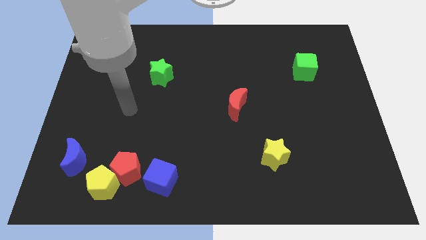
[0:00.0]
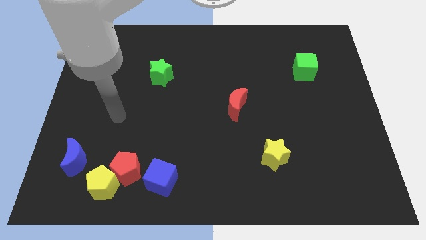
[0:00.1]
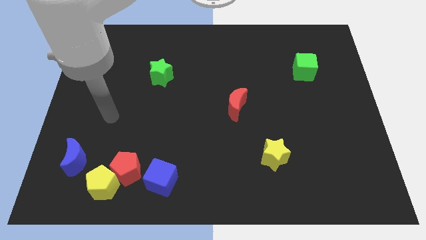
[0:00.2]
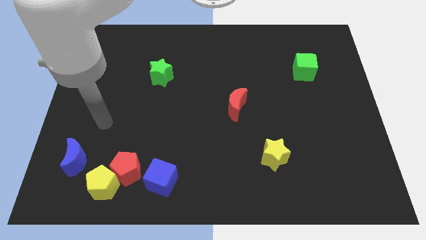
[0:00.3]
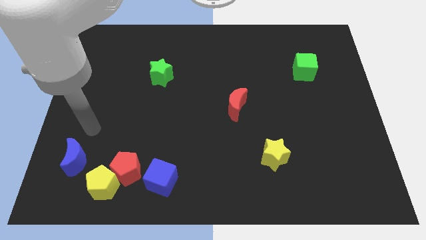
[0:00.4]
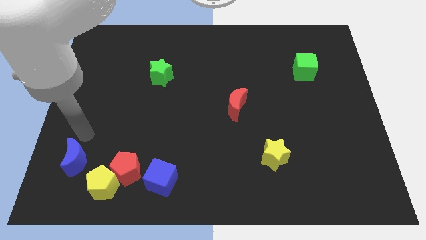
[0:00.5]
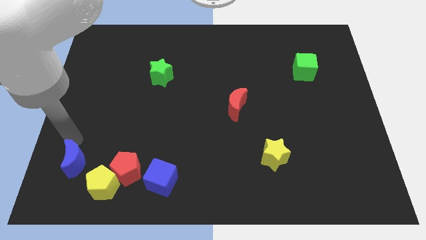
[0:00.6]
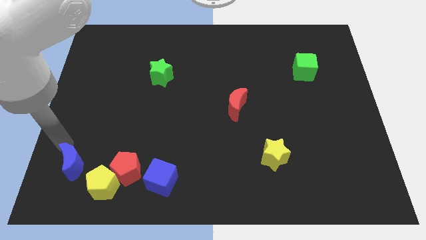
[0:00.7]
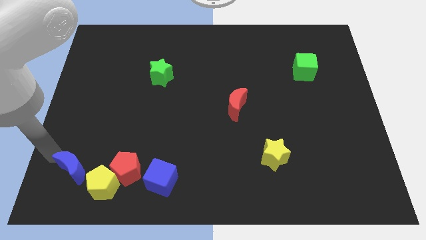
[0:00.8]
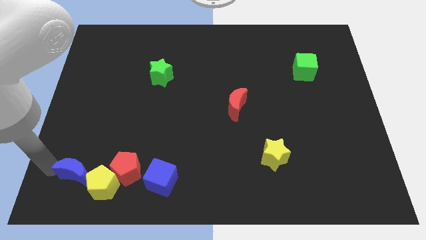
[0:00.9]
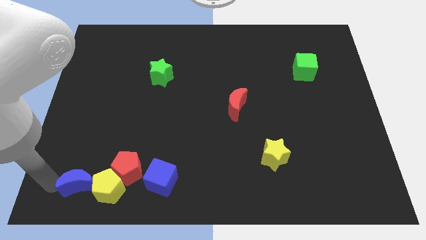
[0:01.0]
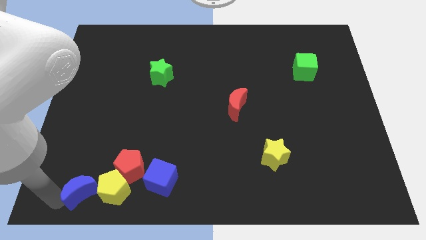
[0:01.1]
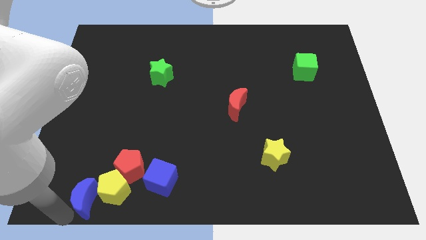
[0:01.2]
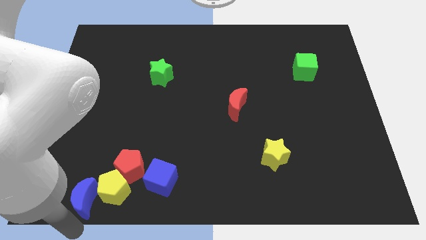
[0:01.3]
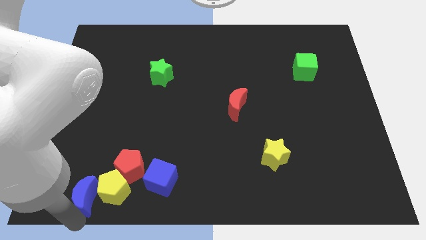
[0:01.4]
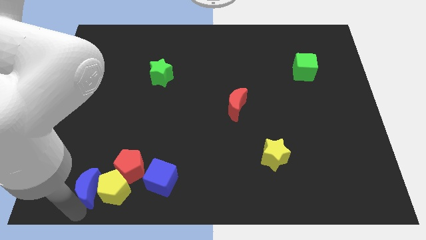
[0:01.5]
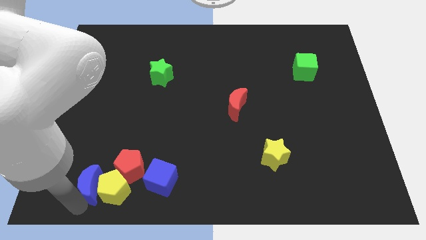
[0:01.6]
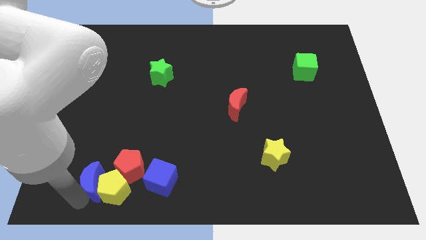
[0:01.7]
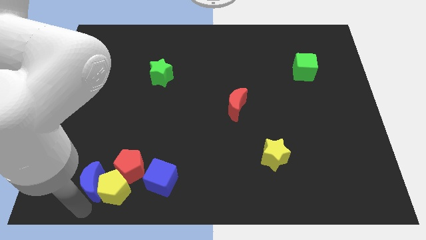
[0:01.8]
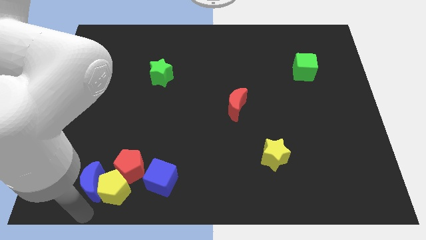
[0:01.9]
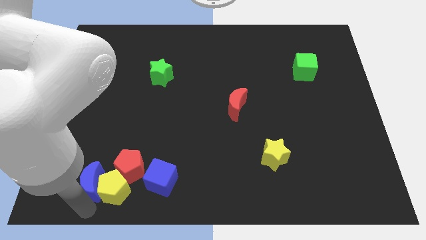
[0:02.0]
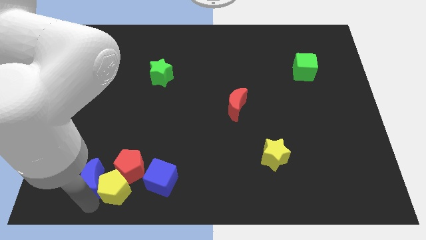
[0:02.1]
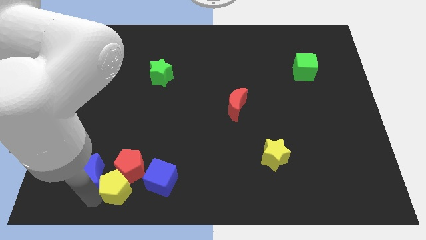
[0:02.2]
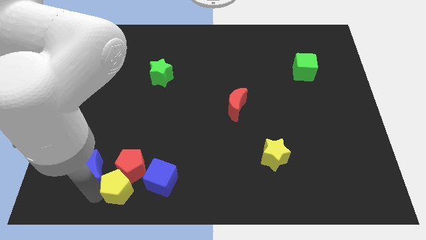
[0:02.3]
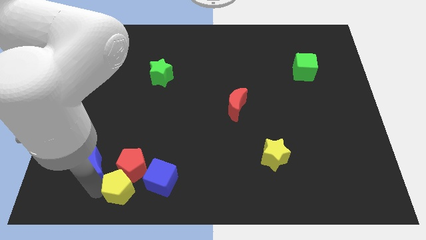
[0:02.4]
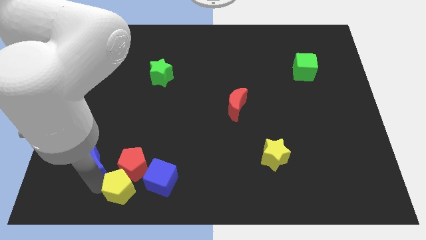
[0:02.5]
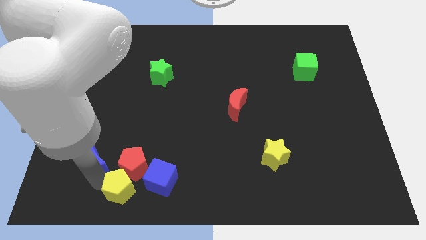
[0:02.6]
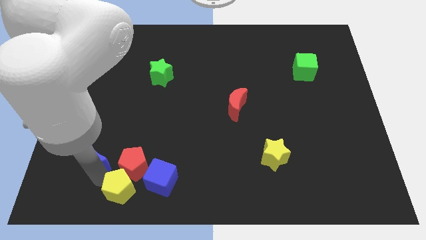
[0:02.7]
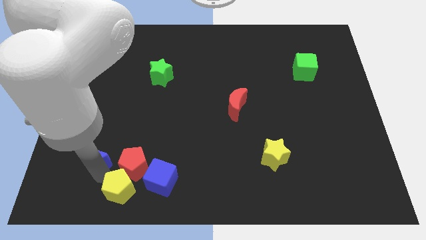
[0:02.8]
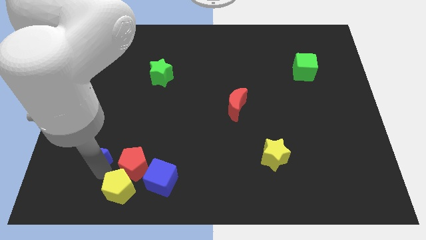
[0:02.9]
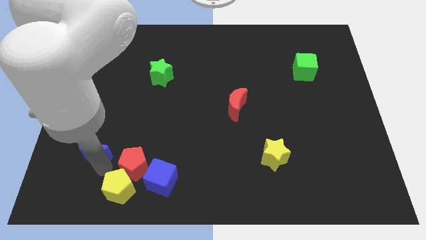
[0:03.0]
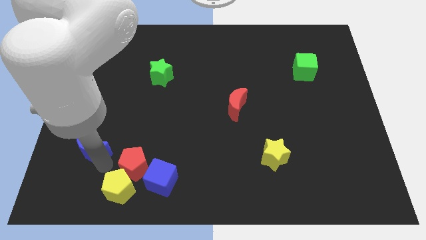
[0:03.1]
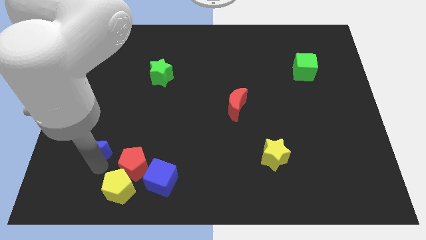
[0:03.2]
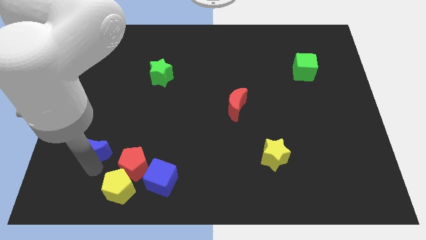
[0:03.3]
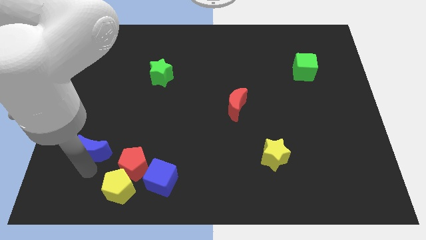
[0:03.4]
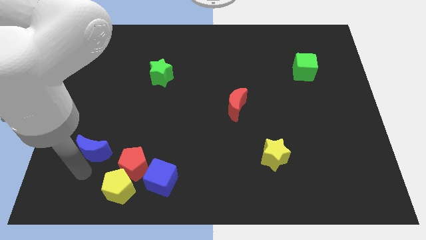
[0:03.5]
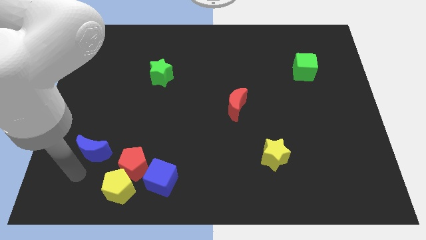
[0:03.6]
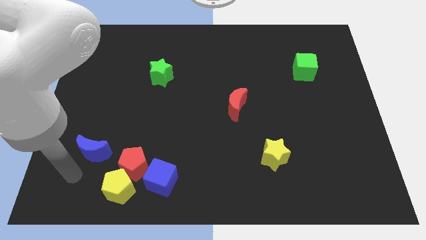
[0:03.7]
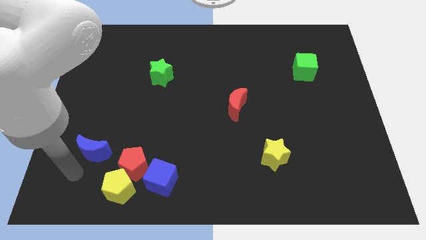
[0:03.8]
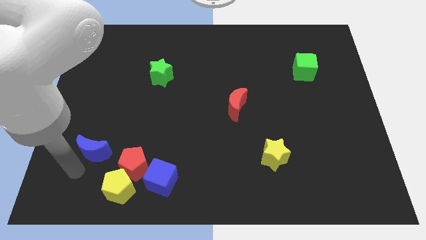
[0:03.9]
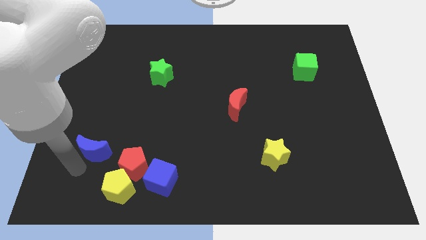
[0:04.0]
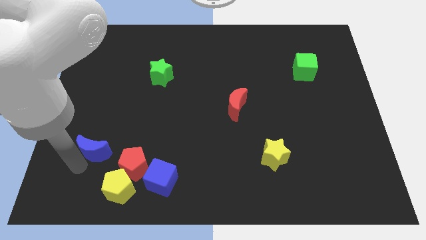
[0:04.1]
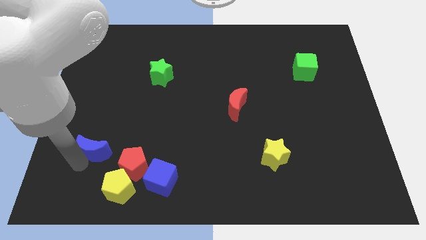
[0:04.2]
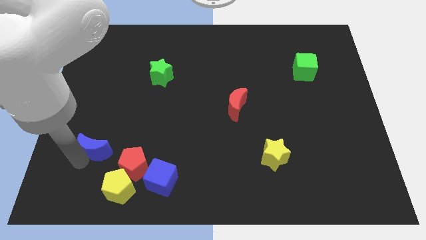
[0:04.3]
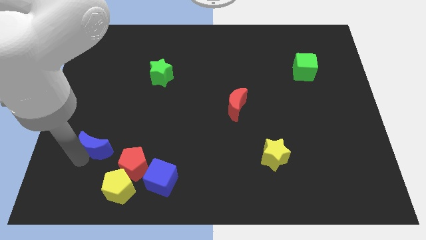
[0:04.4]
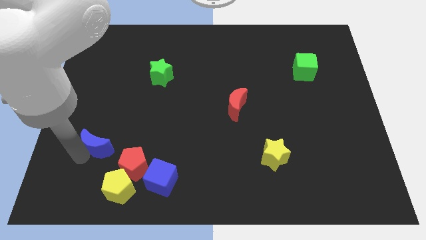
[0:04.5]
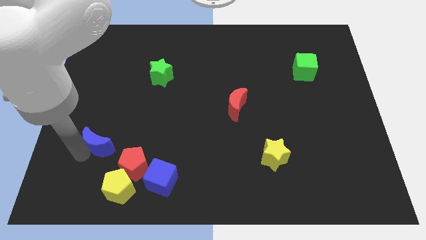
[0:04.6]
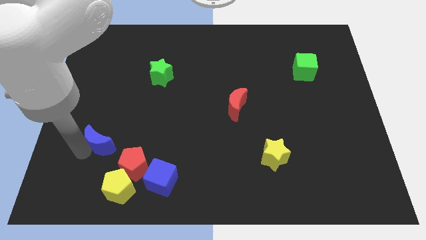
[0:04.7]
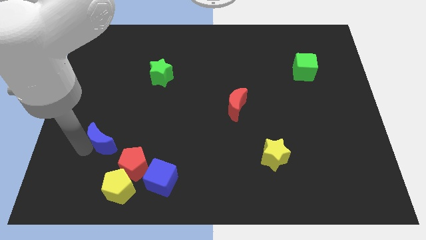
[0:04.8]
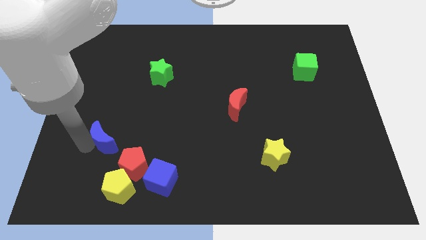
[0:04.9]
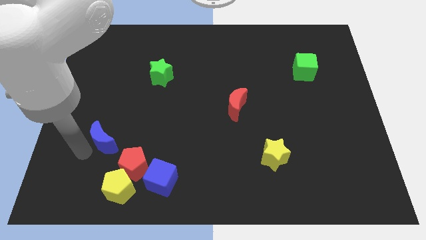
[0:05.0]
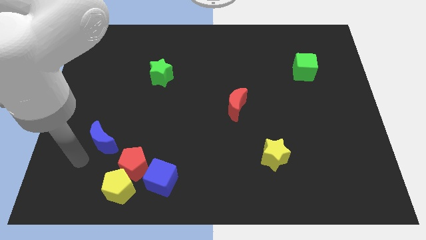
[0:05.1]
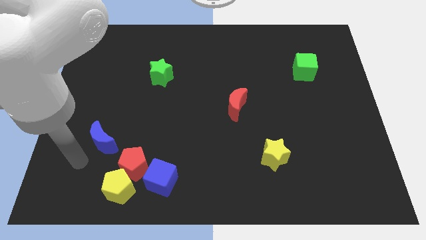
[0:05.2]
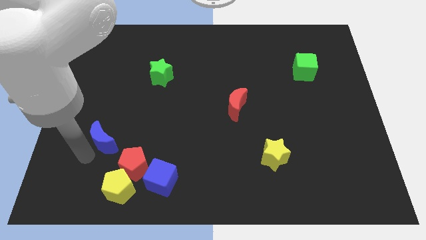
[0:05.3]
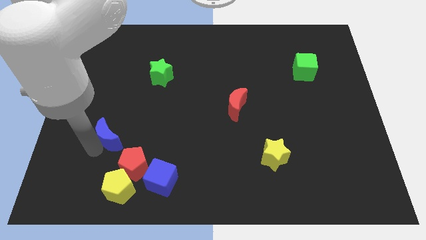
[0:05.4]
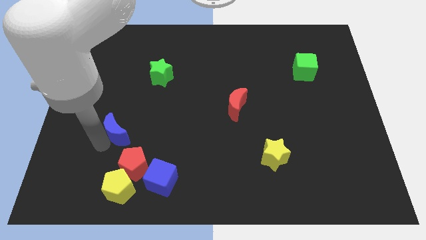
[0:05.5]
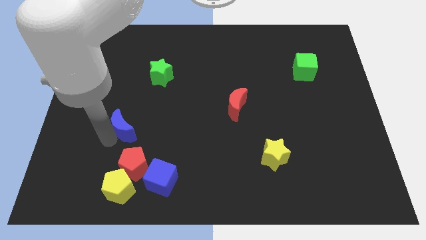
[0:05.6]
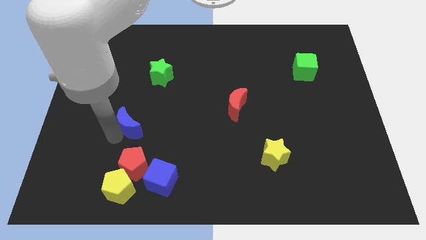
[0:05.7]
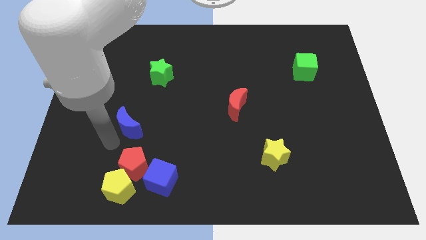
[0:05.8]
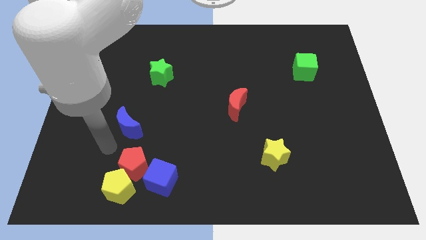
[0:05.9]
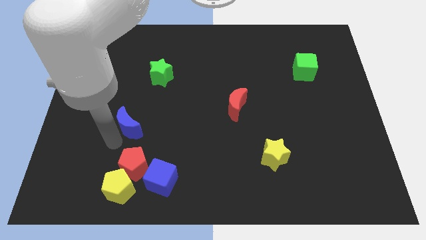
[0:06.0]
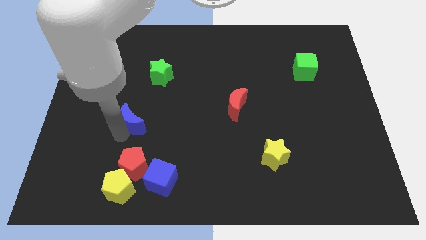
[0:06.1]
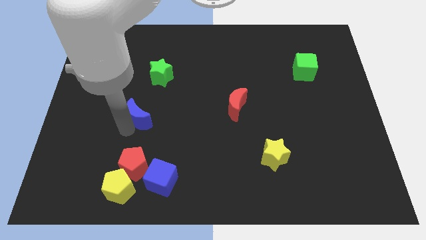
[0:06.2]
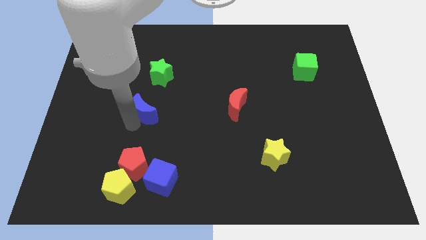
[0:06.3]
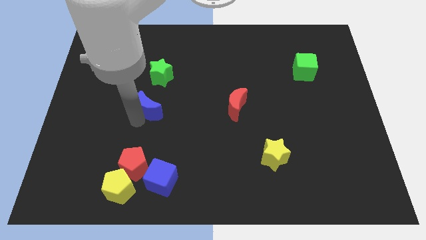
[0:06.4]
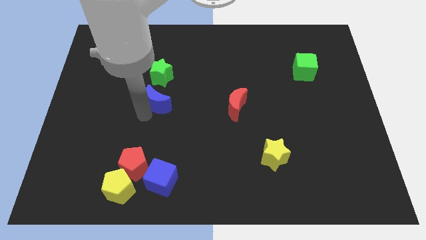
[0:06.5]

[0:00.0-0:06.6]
move the blue moon upwards and then to the right

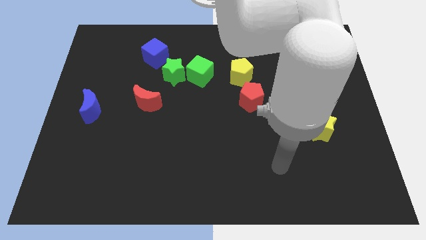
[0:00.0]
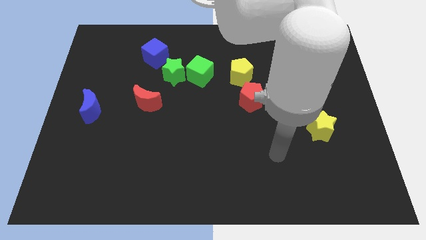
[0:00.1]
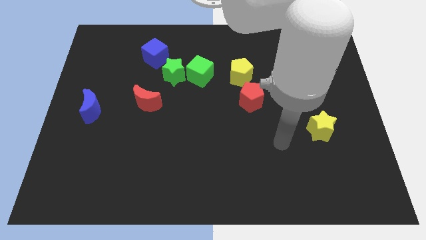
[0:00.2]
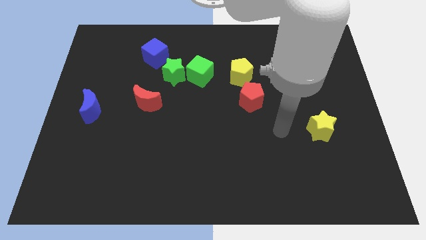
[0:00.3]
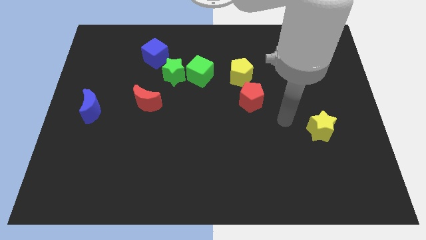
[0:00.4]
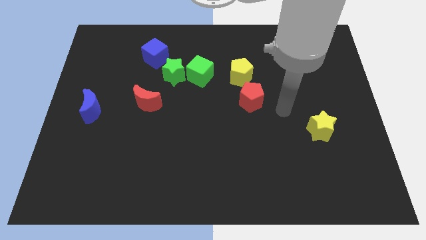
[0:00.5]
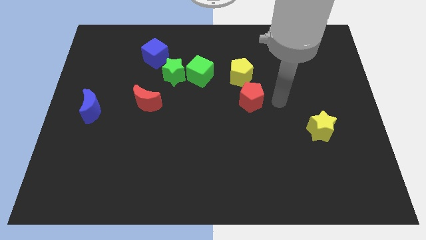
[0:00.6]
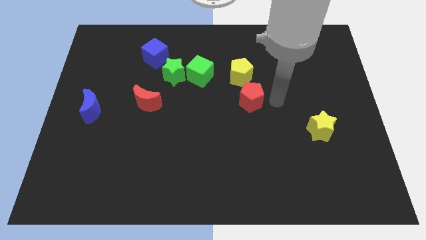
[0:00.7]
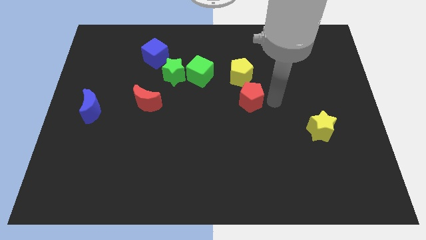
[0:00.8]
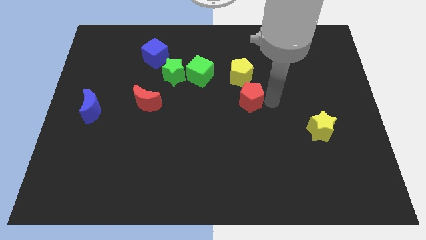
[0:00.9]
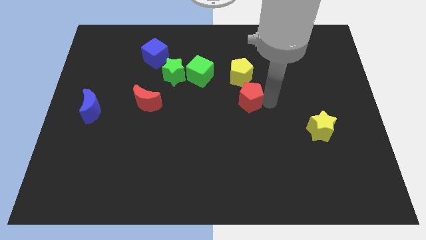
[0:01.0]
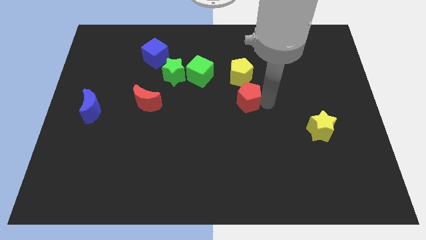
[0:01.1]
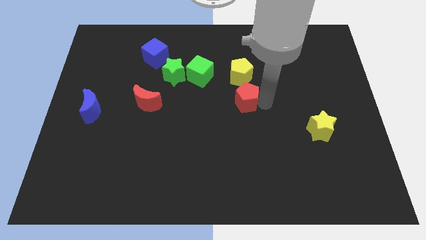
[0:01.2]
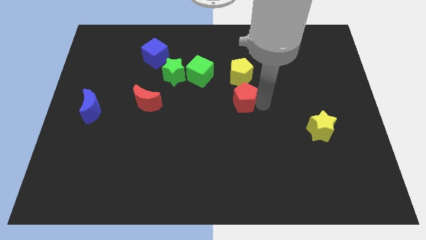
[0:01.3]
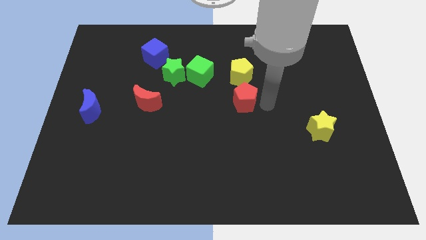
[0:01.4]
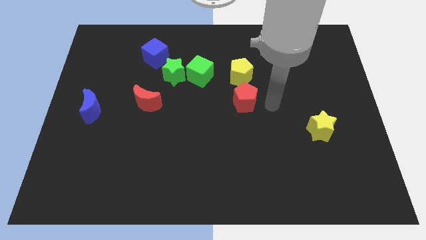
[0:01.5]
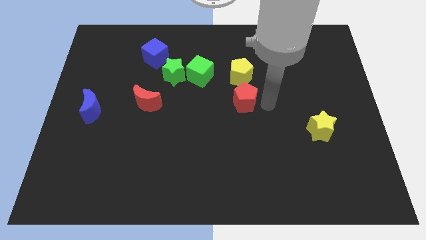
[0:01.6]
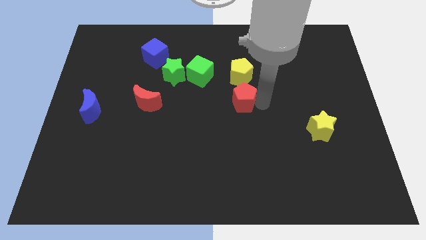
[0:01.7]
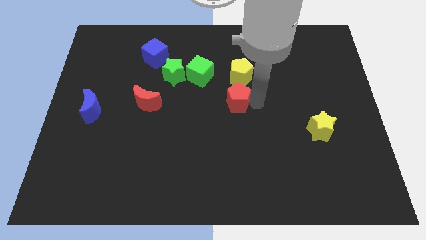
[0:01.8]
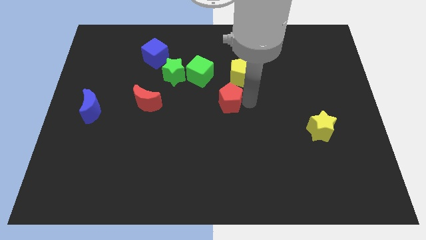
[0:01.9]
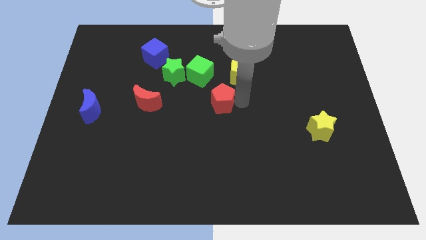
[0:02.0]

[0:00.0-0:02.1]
move the red pentagon to the left a bit
